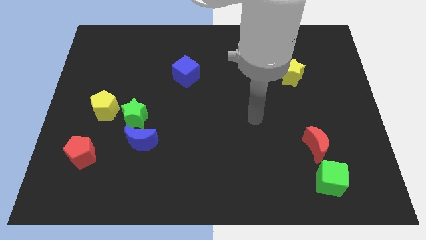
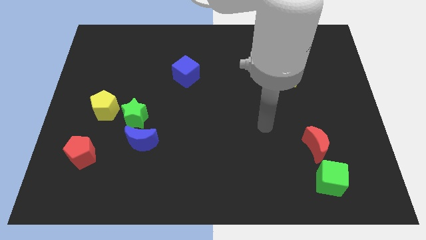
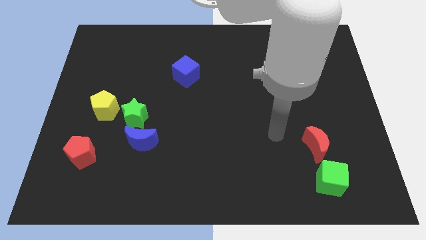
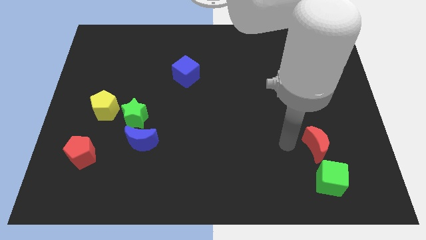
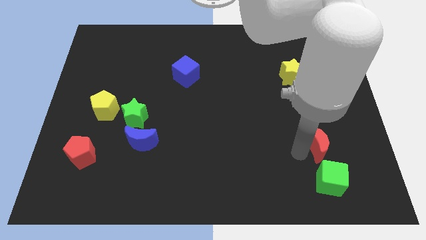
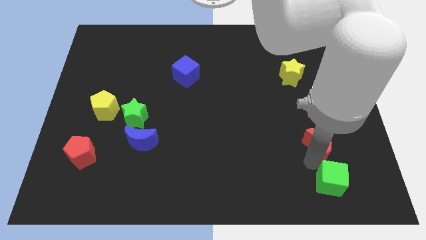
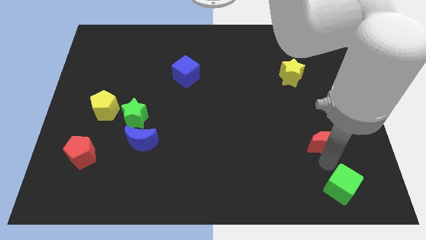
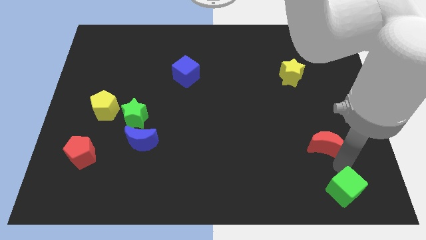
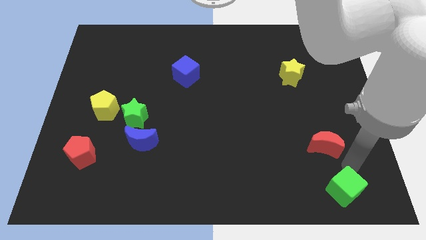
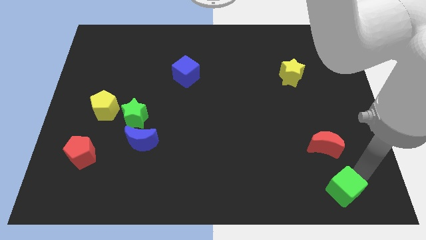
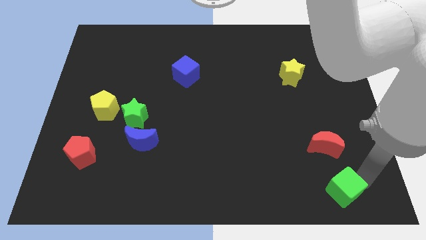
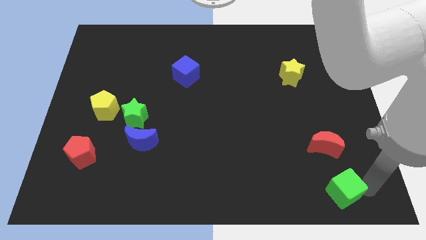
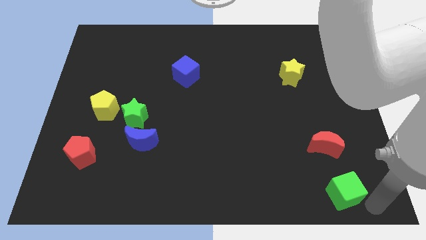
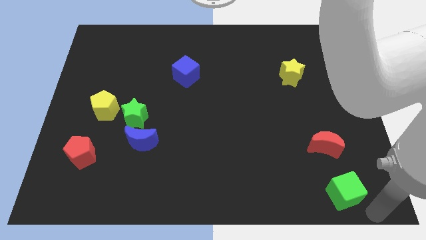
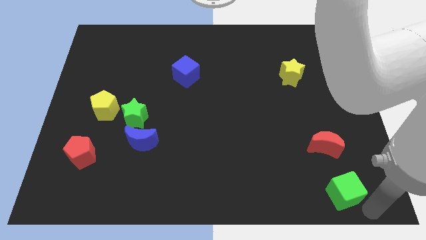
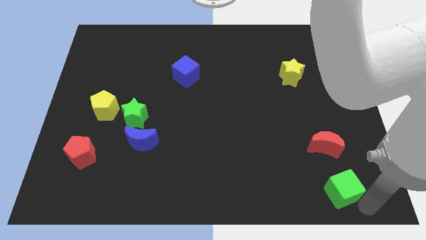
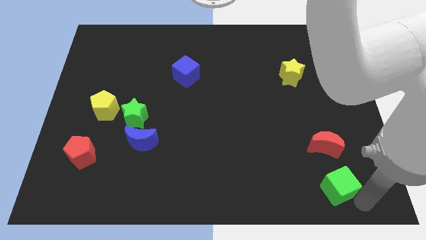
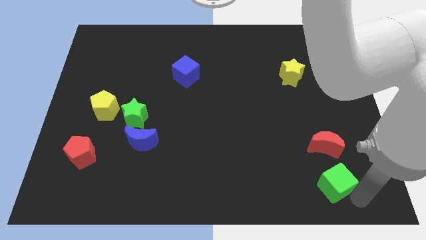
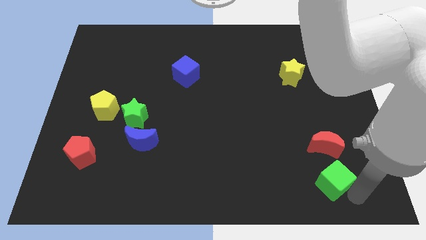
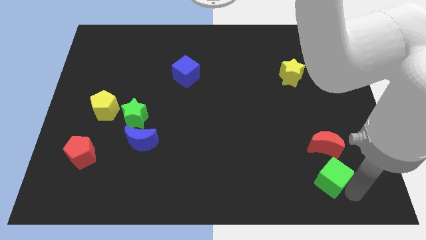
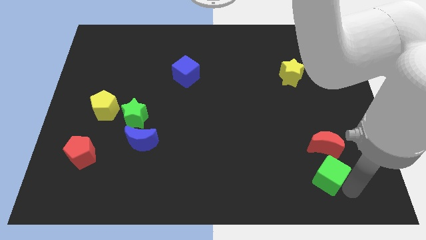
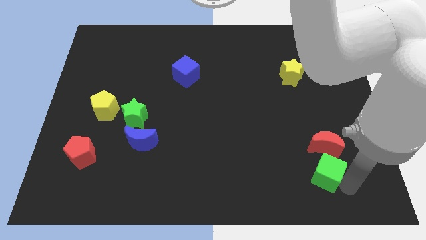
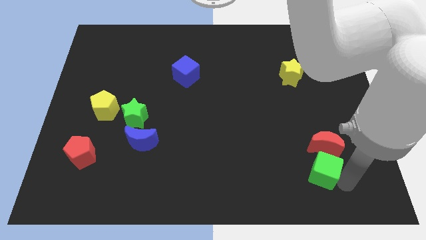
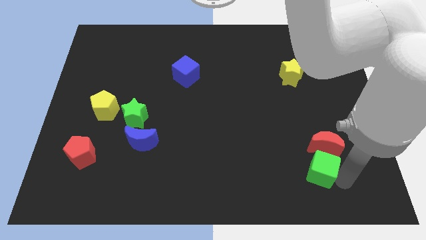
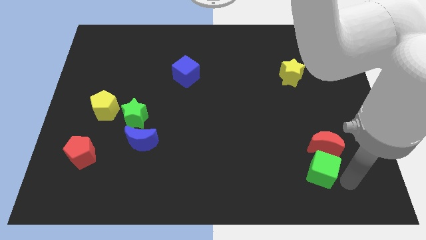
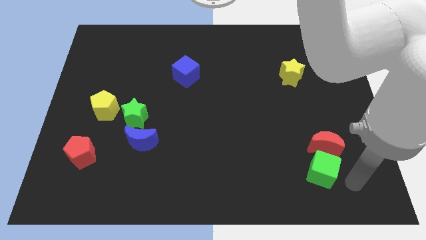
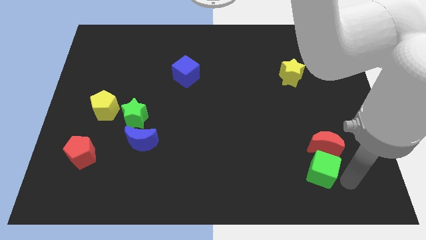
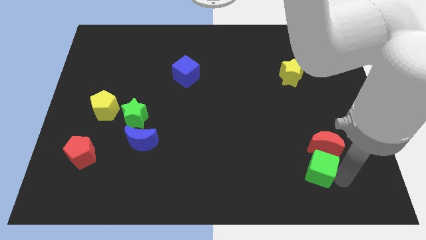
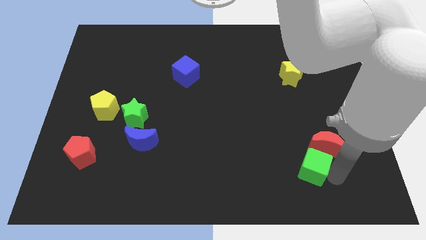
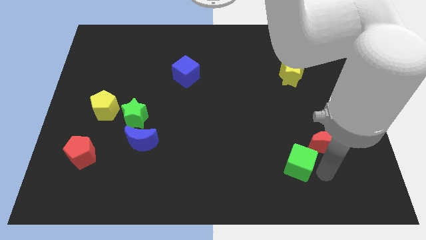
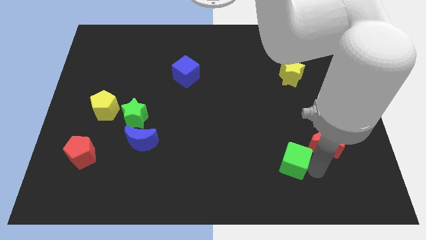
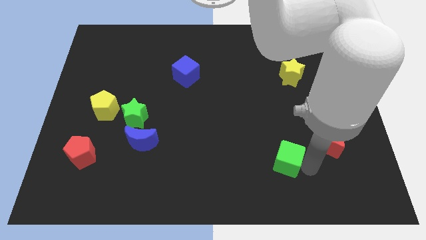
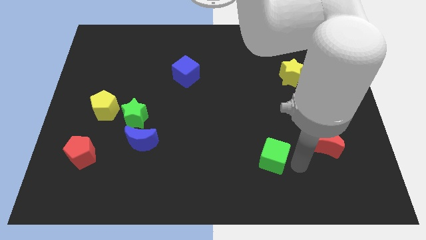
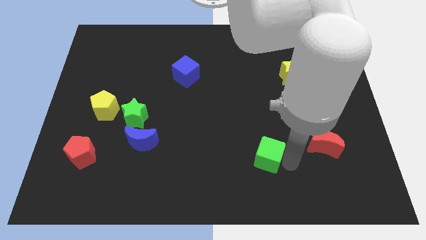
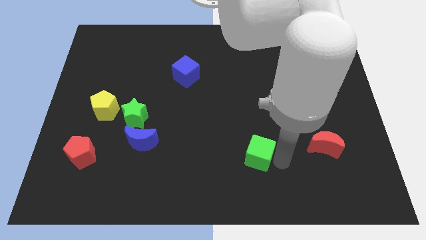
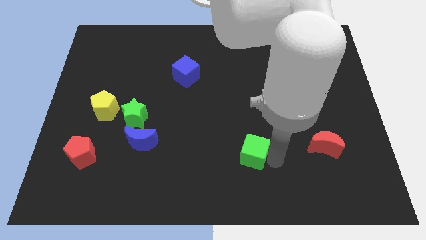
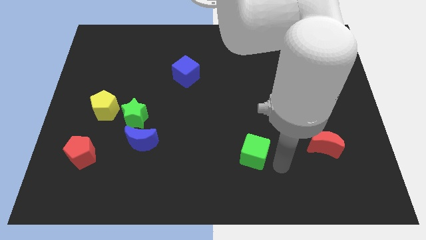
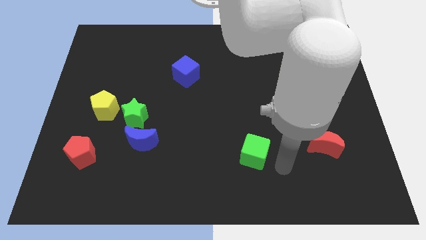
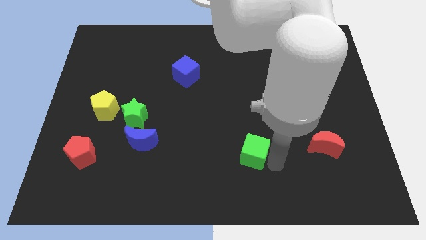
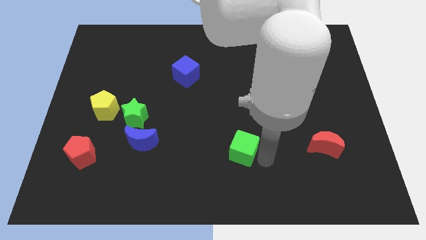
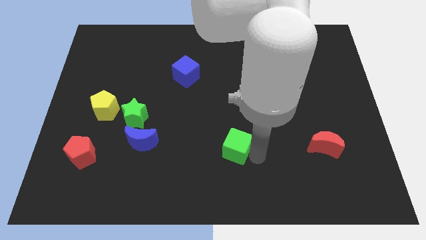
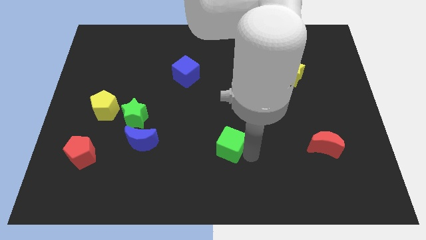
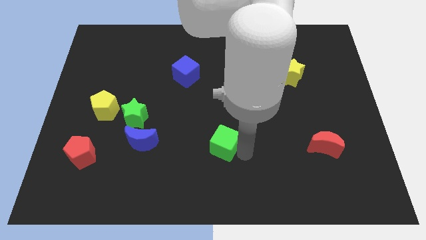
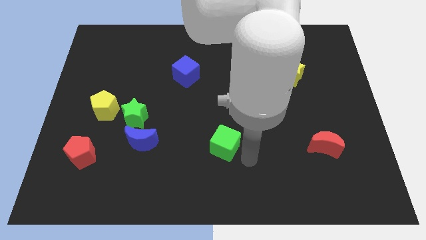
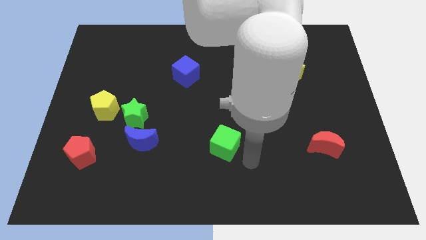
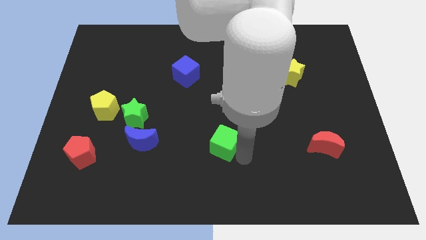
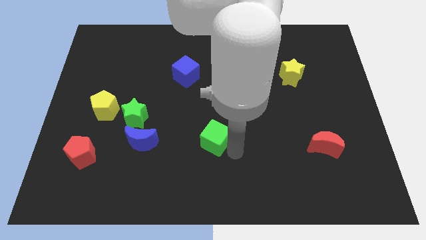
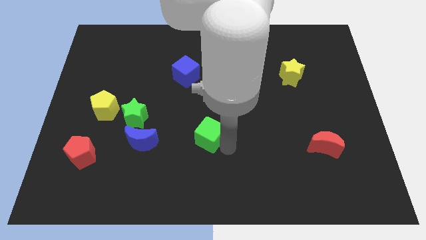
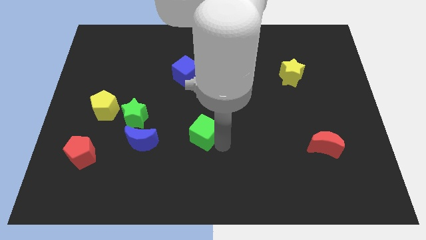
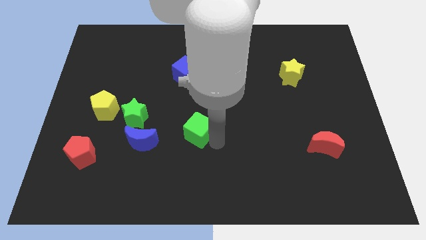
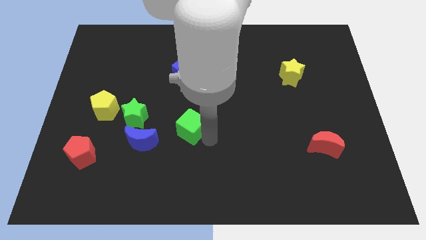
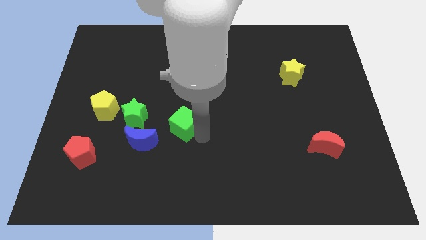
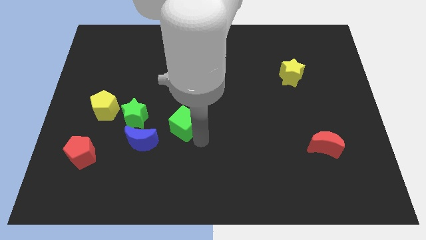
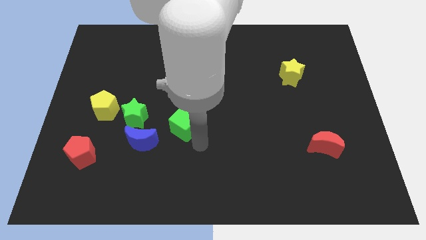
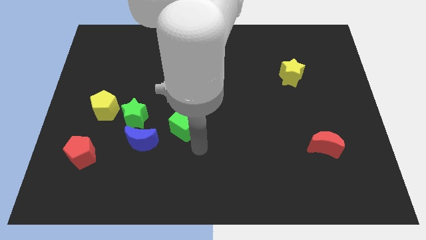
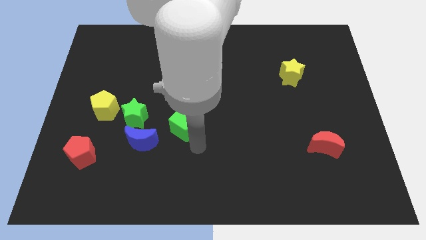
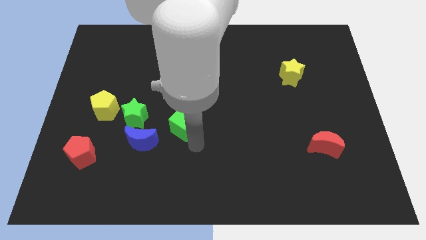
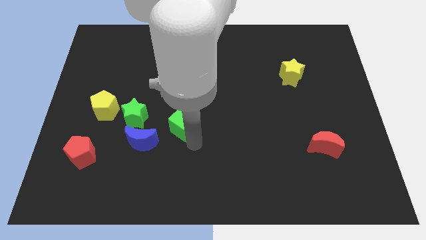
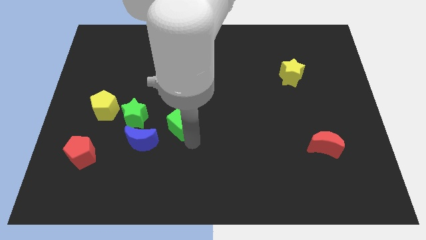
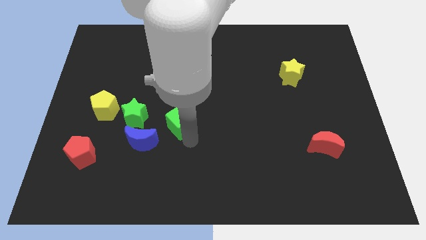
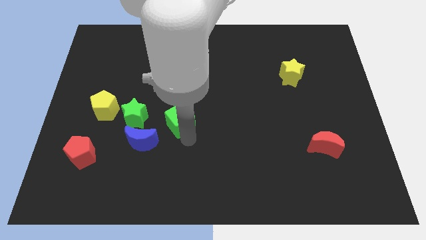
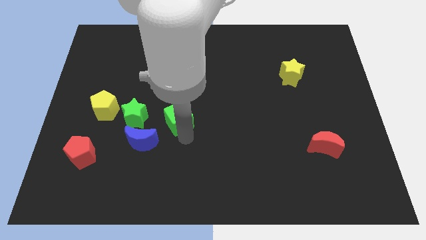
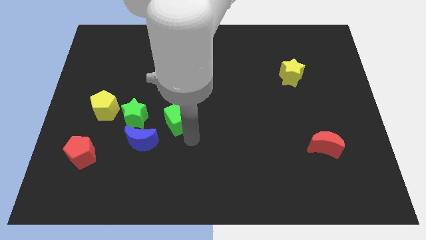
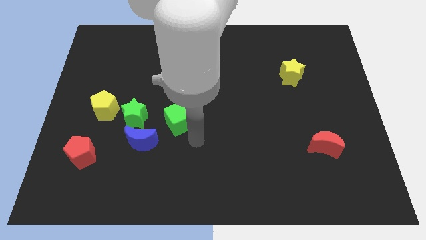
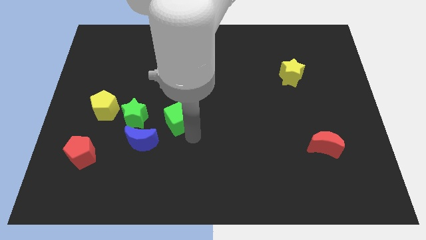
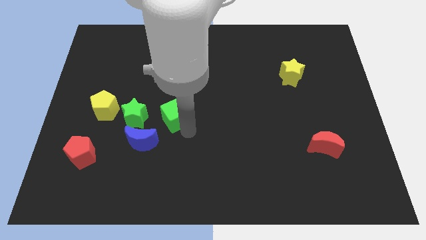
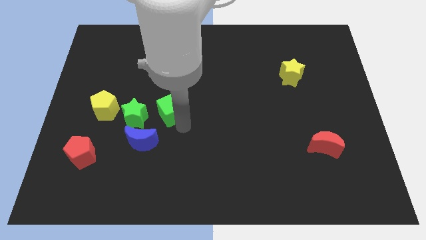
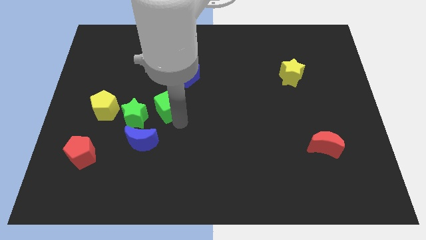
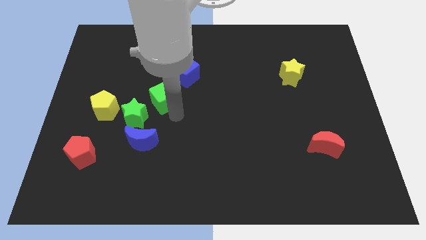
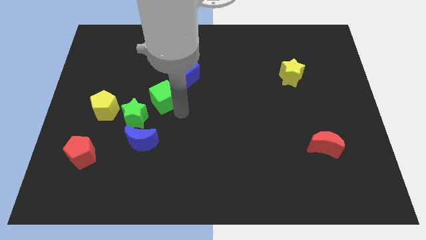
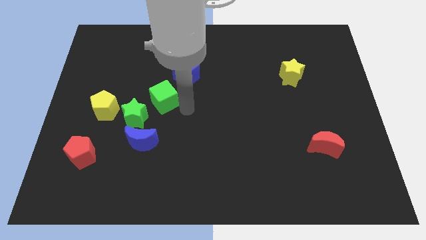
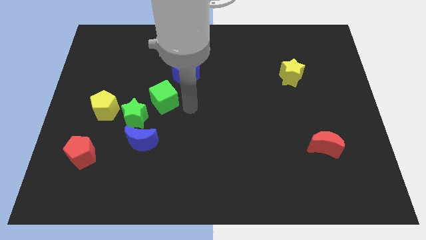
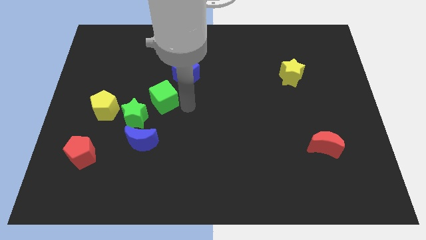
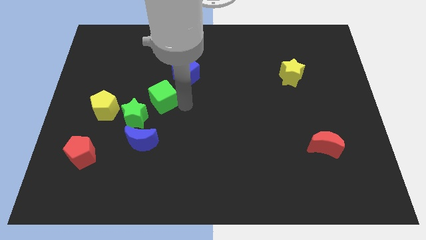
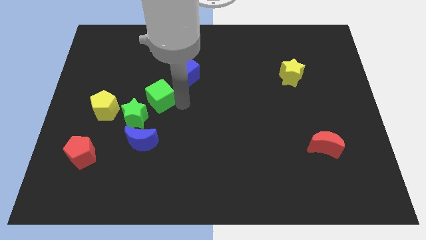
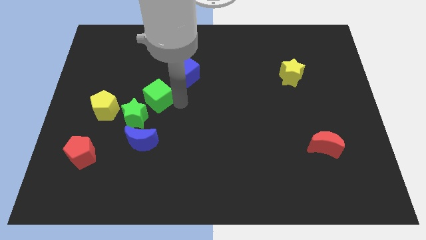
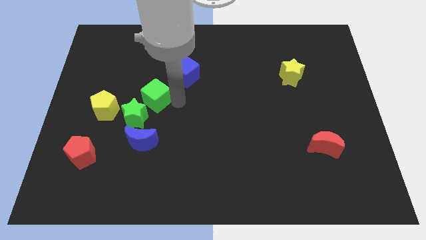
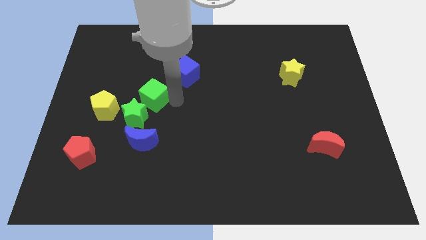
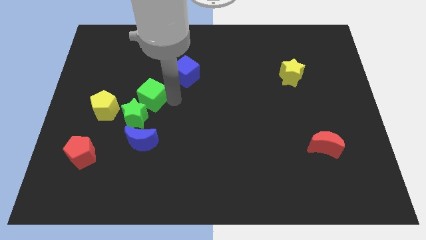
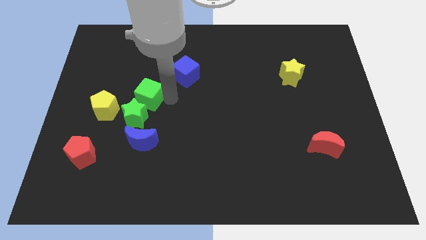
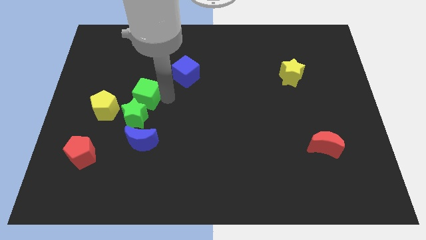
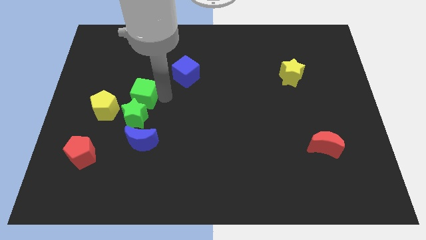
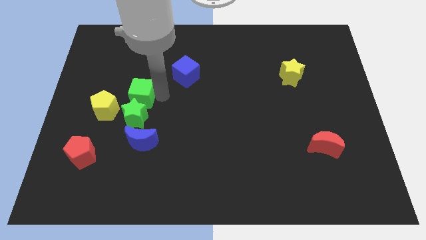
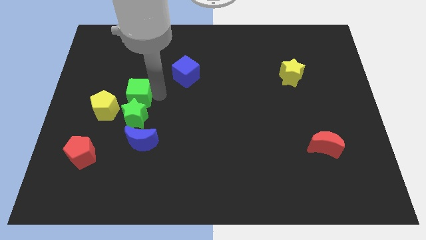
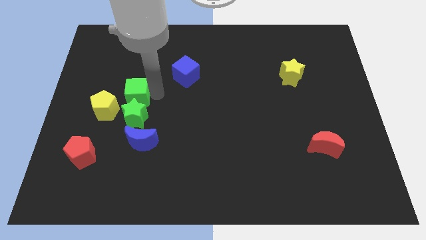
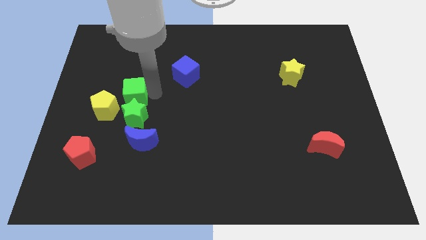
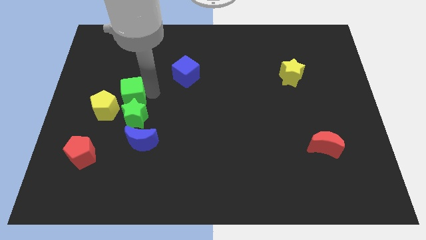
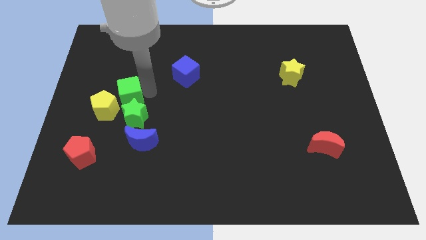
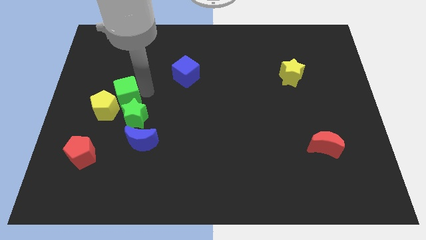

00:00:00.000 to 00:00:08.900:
push the green cube to the yellow pentagon
